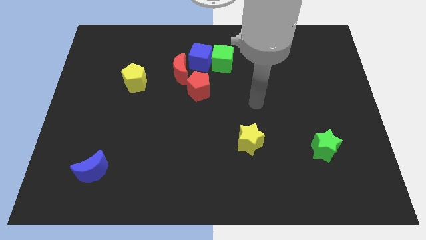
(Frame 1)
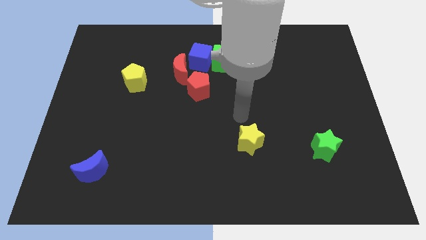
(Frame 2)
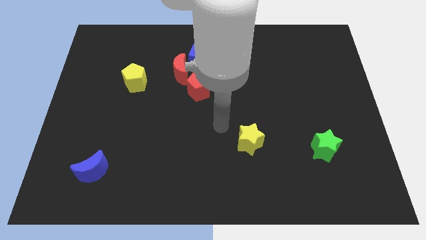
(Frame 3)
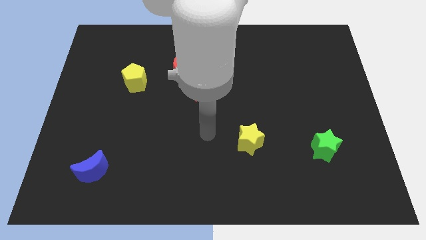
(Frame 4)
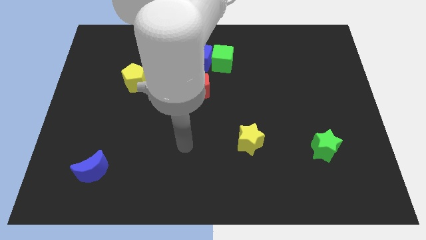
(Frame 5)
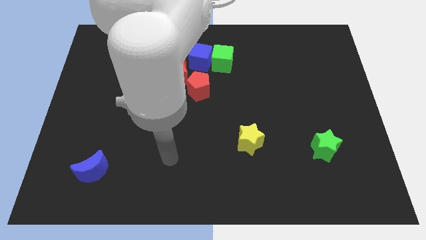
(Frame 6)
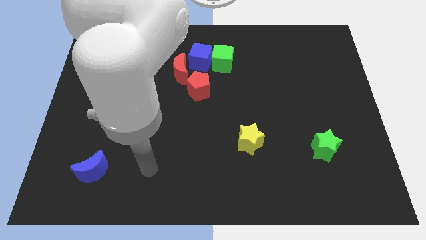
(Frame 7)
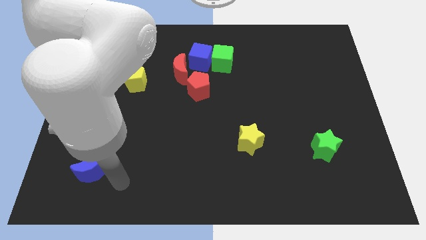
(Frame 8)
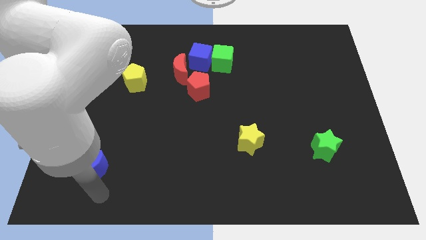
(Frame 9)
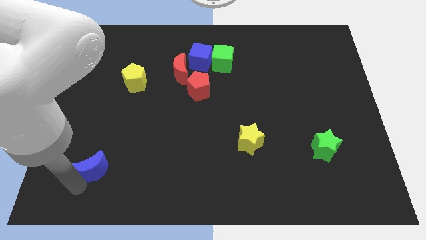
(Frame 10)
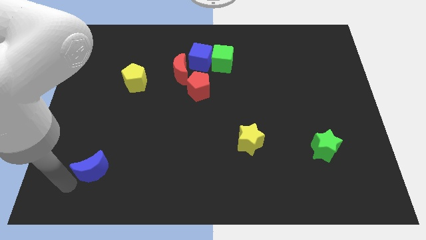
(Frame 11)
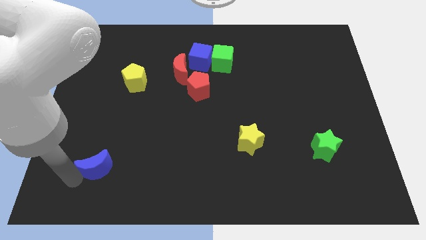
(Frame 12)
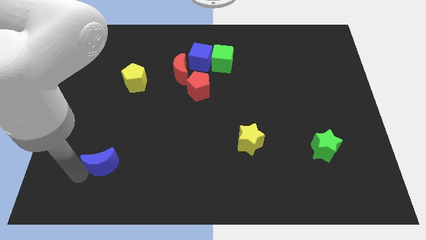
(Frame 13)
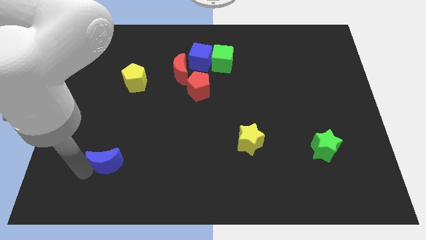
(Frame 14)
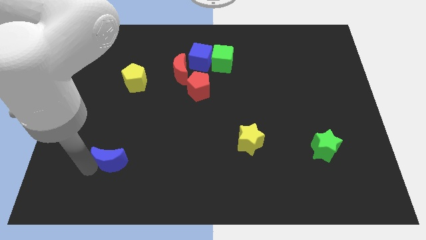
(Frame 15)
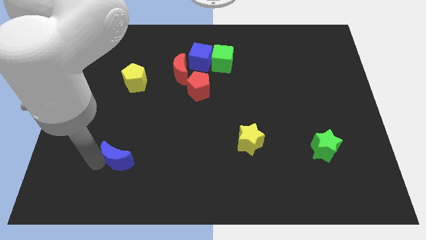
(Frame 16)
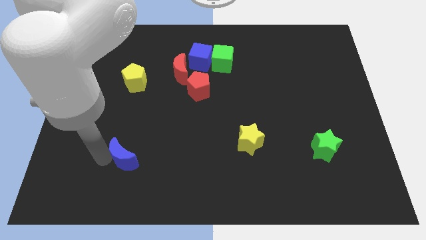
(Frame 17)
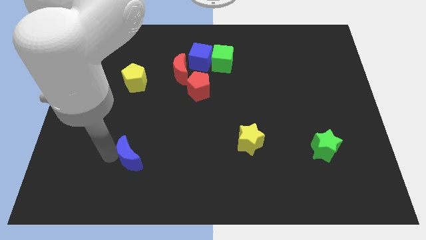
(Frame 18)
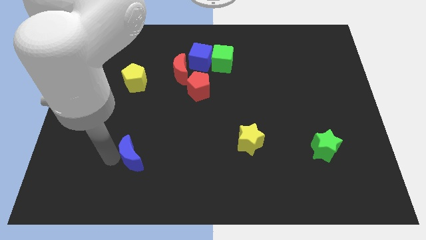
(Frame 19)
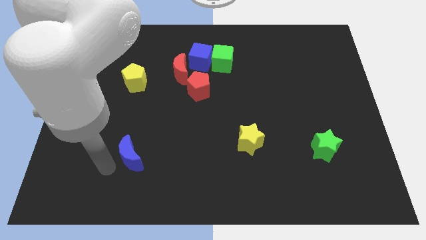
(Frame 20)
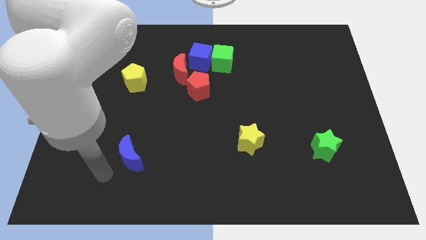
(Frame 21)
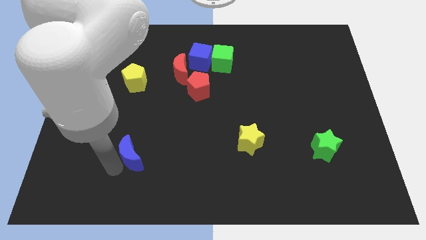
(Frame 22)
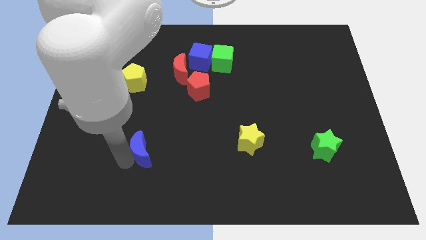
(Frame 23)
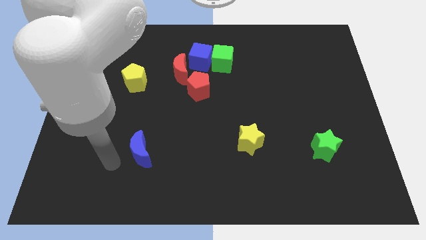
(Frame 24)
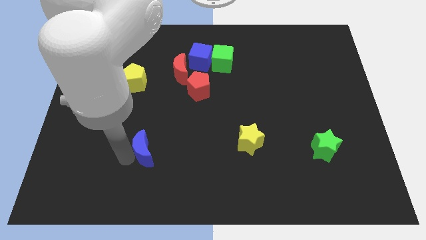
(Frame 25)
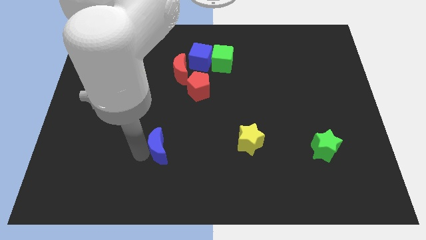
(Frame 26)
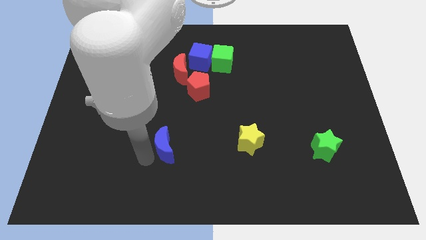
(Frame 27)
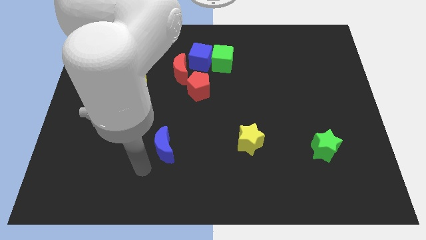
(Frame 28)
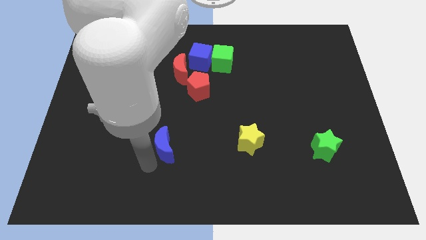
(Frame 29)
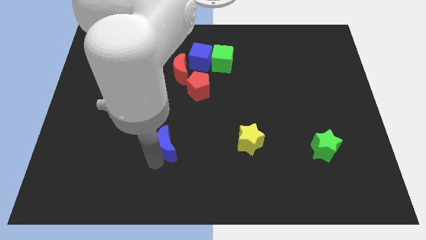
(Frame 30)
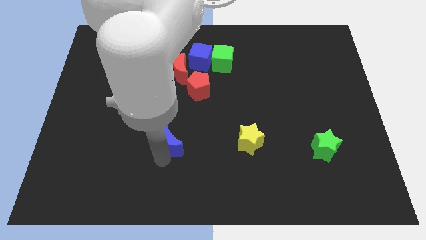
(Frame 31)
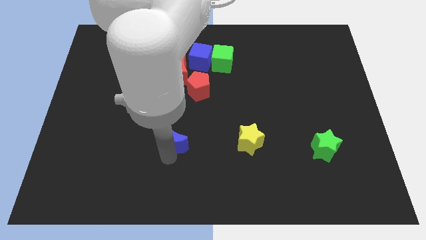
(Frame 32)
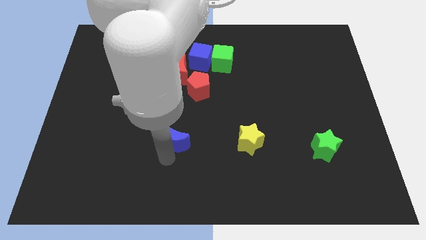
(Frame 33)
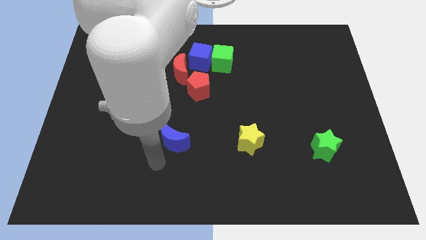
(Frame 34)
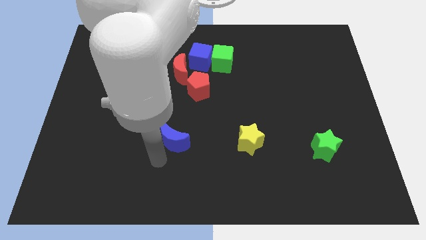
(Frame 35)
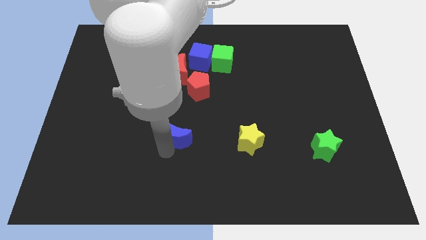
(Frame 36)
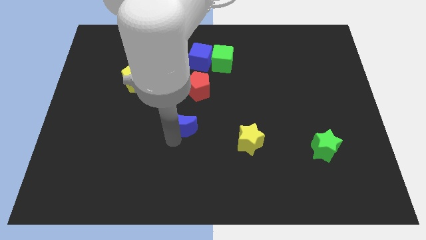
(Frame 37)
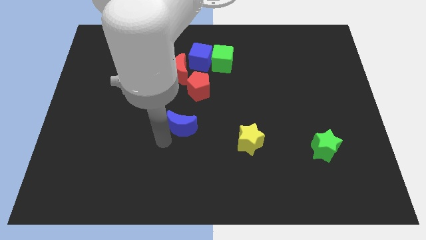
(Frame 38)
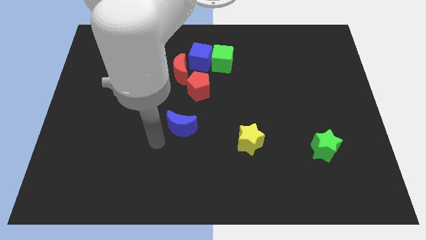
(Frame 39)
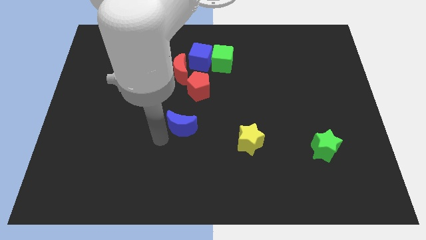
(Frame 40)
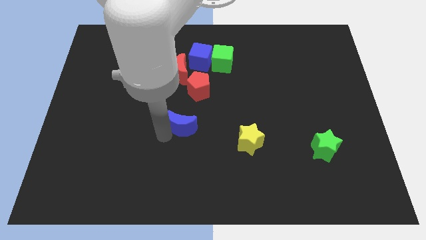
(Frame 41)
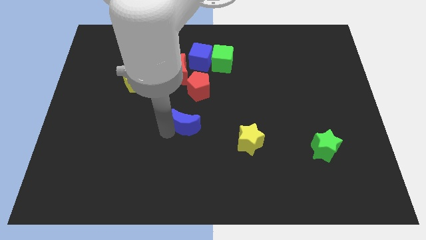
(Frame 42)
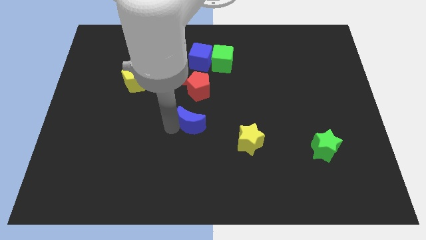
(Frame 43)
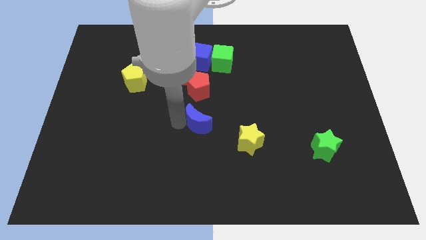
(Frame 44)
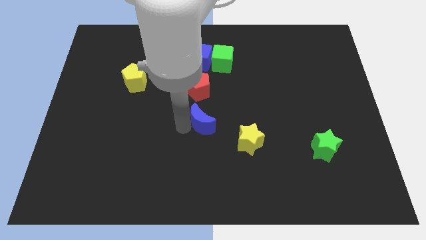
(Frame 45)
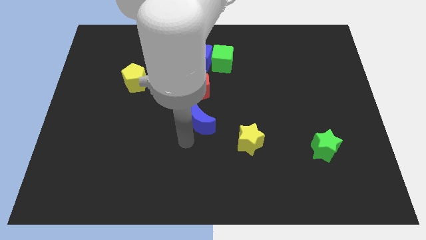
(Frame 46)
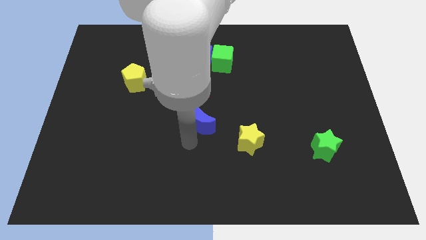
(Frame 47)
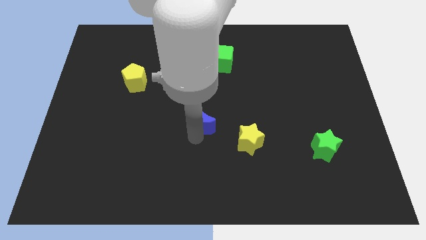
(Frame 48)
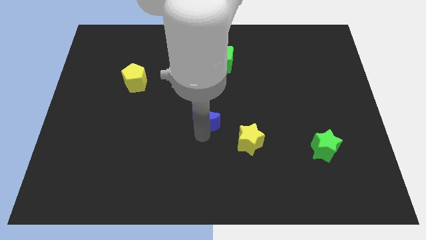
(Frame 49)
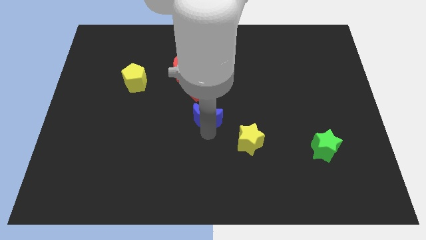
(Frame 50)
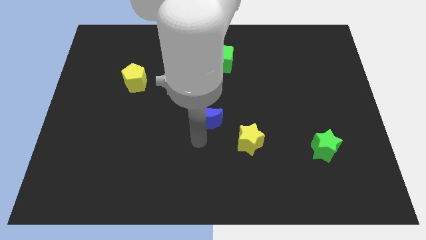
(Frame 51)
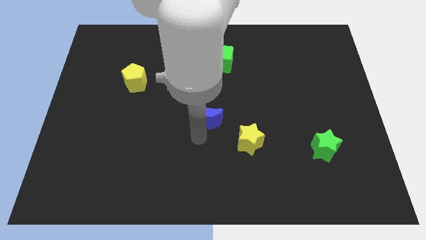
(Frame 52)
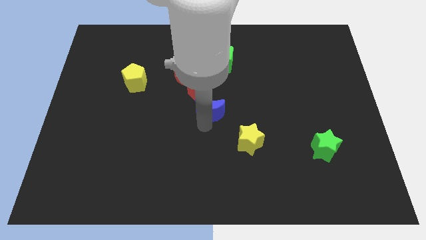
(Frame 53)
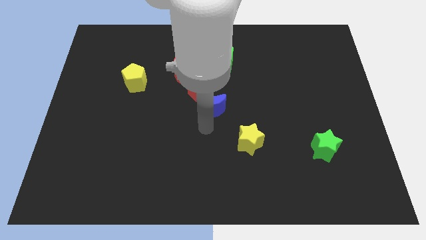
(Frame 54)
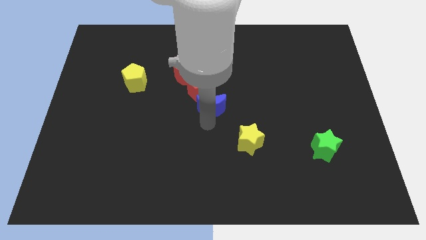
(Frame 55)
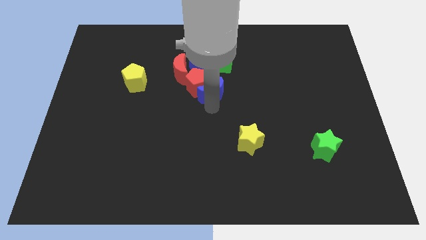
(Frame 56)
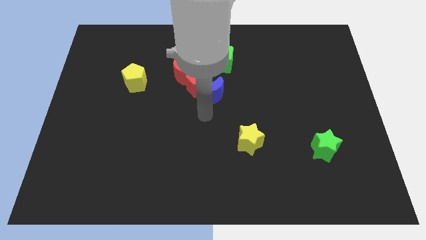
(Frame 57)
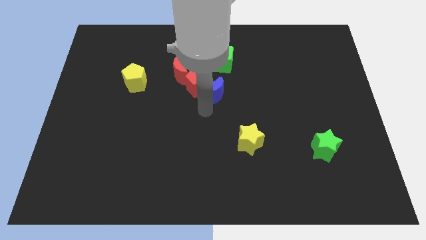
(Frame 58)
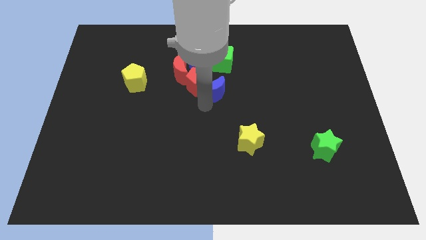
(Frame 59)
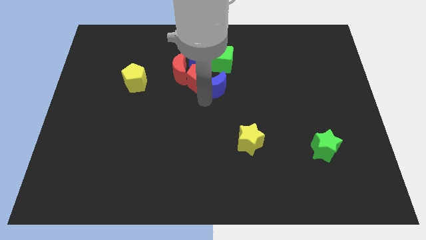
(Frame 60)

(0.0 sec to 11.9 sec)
push the blue moon to the bottom right side of the blue cube

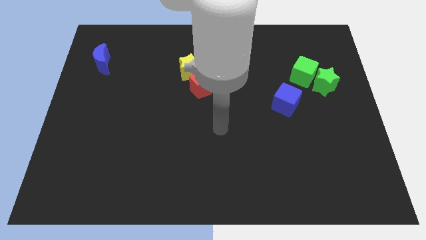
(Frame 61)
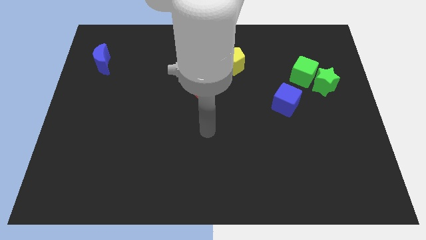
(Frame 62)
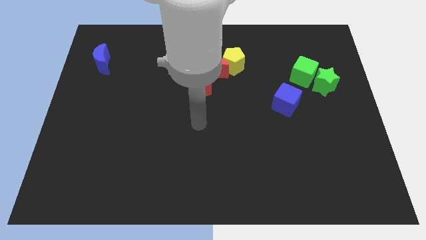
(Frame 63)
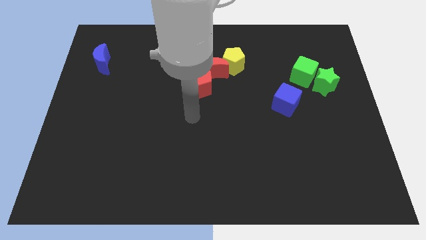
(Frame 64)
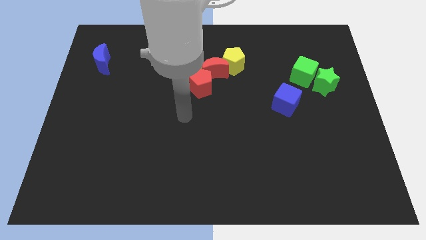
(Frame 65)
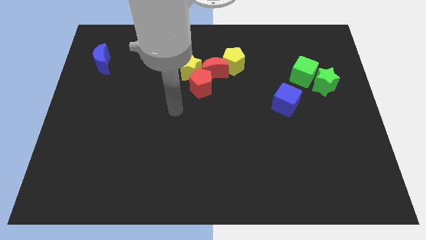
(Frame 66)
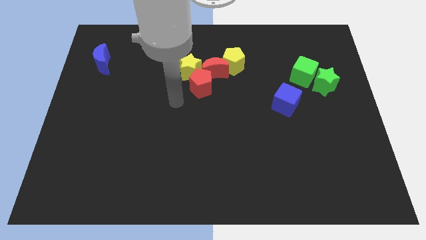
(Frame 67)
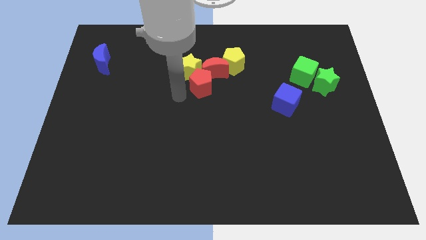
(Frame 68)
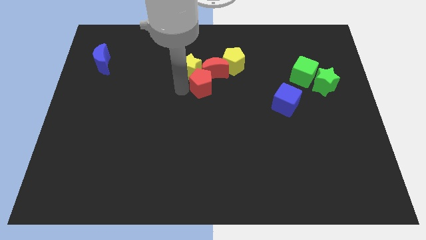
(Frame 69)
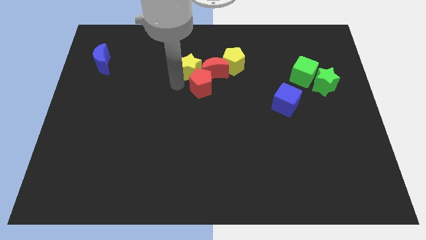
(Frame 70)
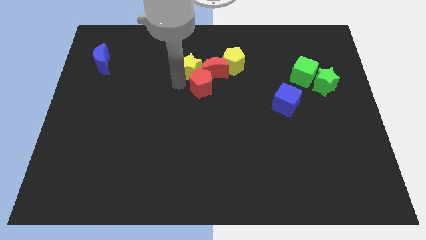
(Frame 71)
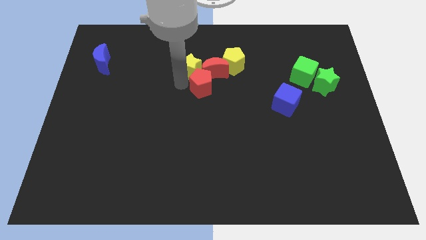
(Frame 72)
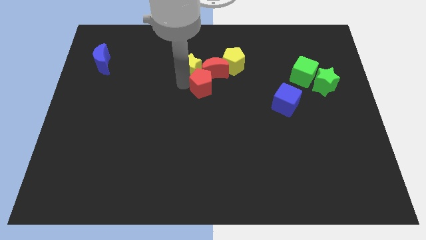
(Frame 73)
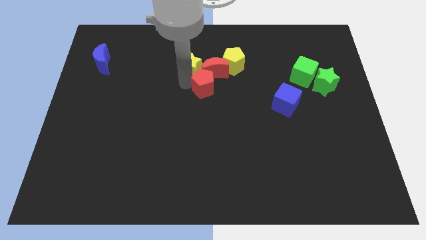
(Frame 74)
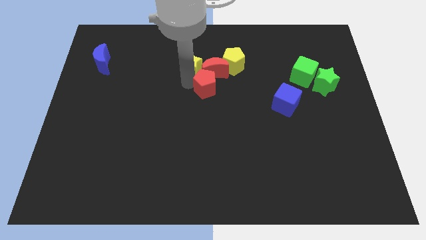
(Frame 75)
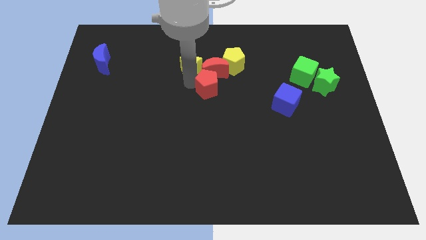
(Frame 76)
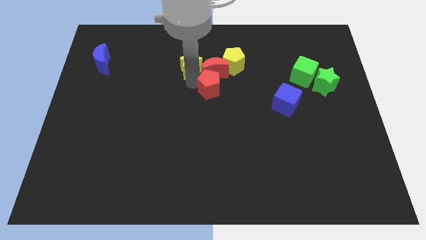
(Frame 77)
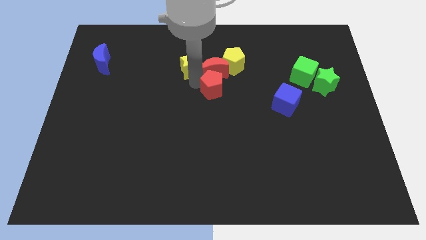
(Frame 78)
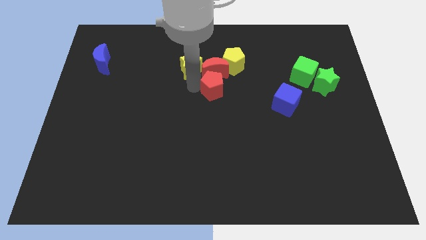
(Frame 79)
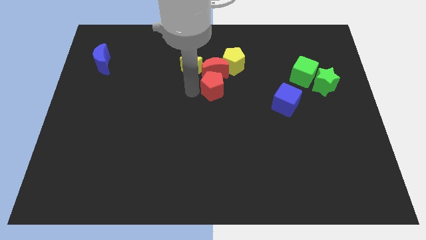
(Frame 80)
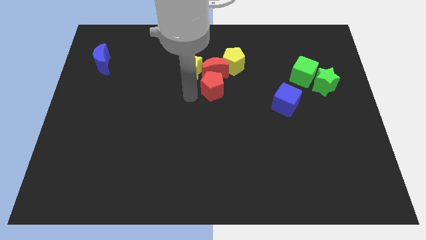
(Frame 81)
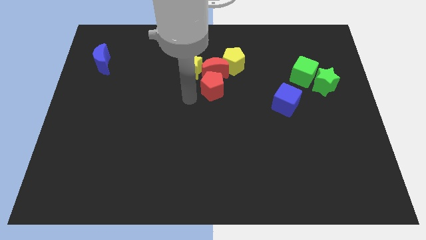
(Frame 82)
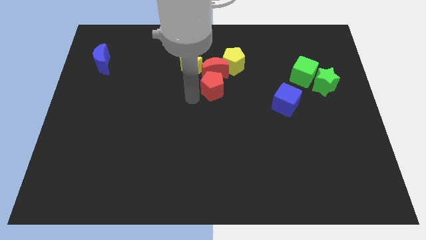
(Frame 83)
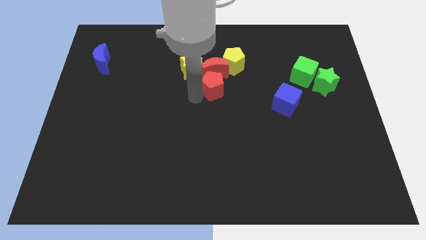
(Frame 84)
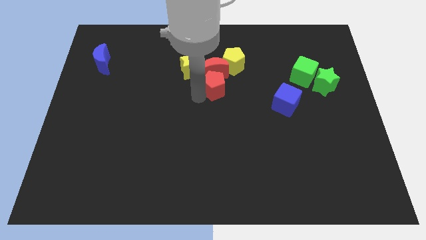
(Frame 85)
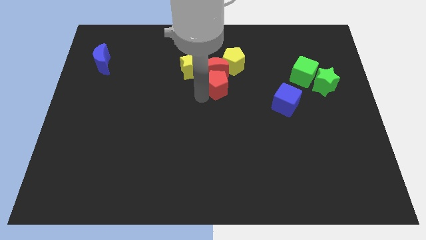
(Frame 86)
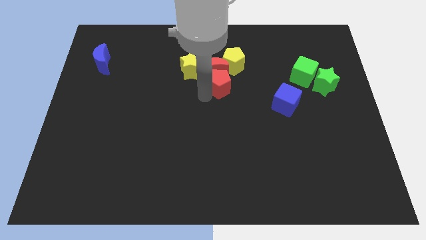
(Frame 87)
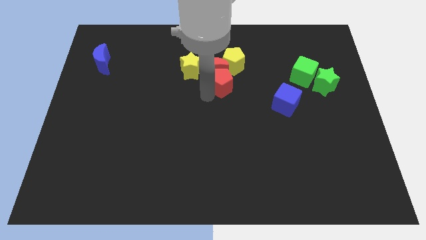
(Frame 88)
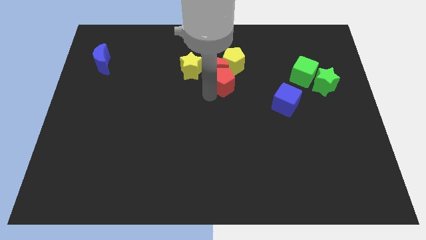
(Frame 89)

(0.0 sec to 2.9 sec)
move the red pentagon to the right of the yellow star
